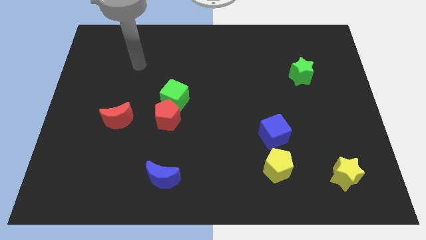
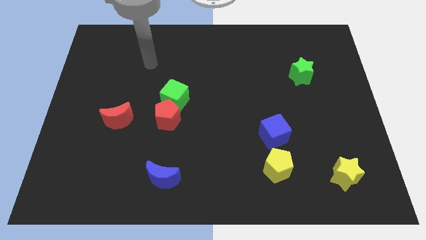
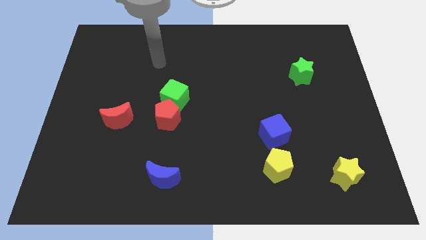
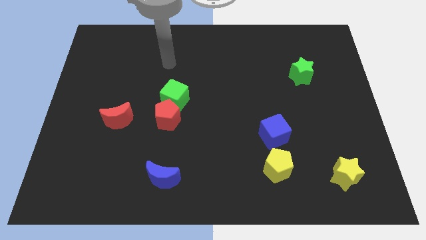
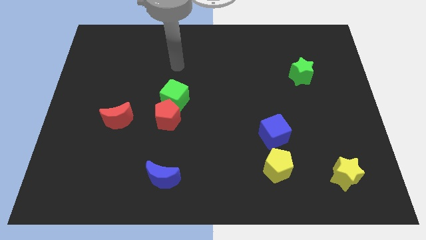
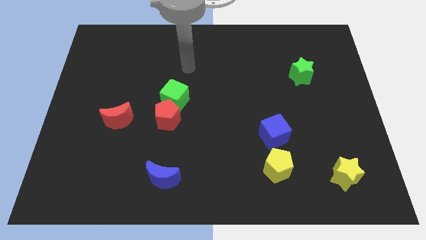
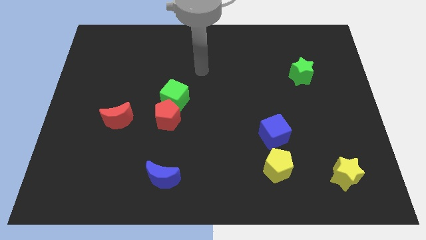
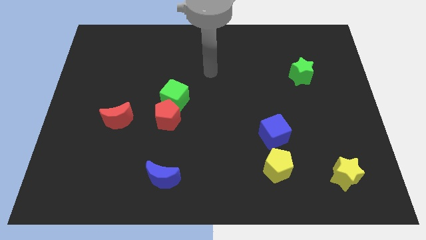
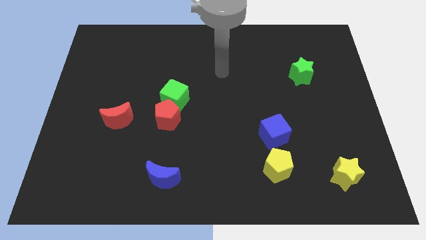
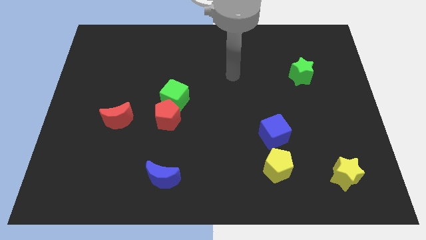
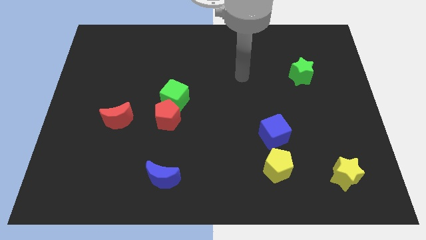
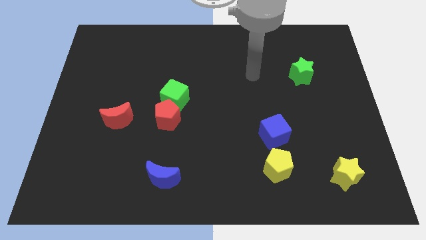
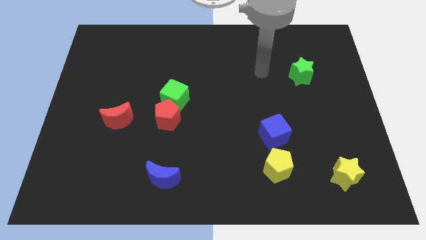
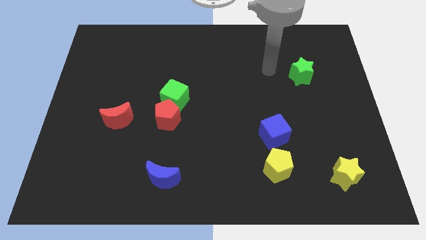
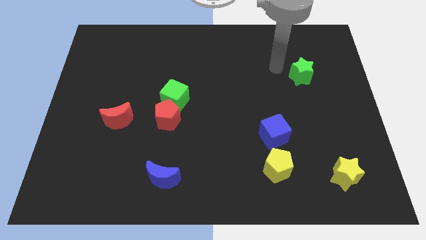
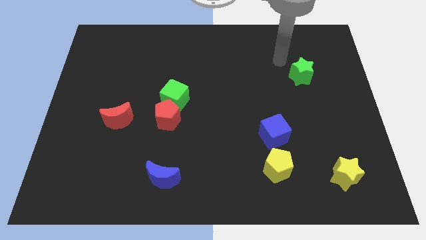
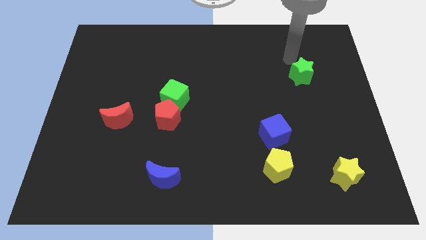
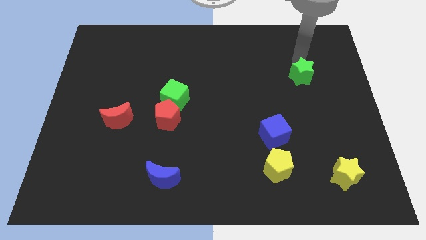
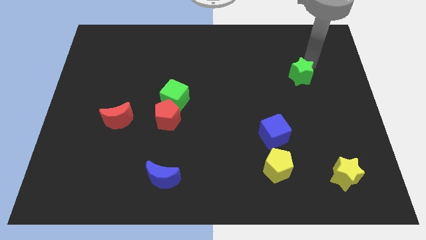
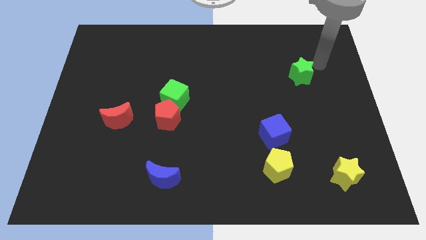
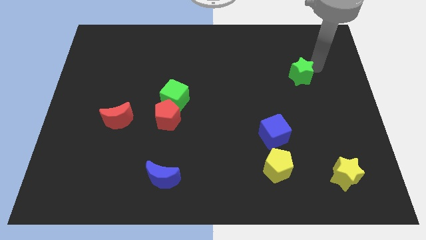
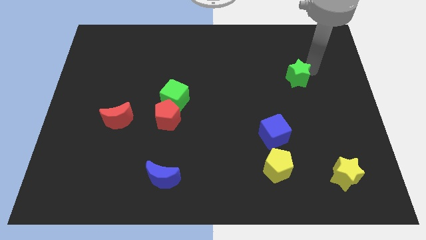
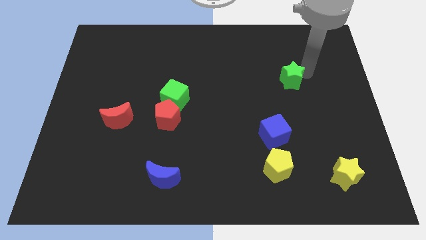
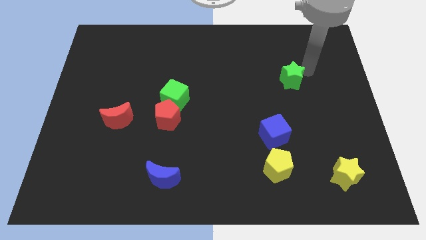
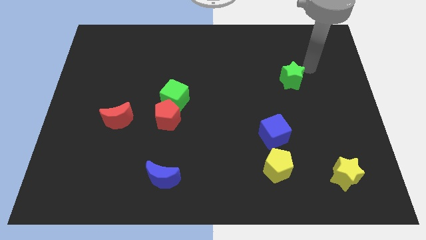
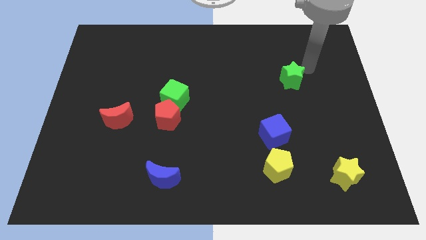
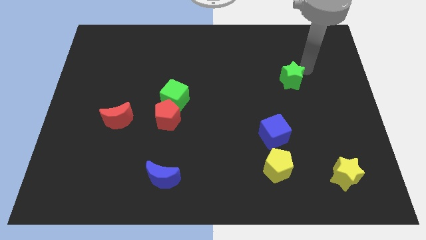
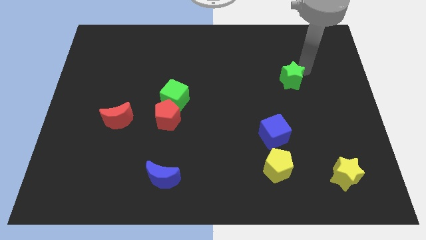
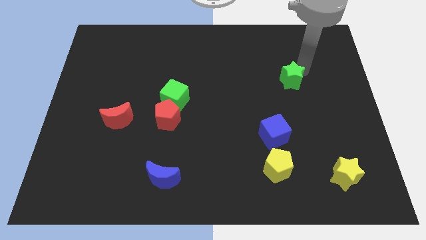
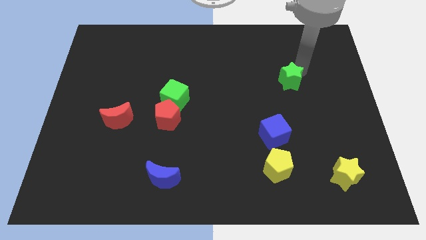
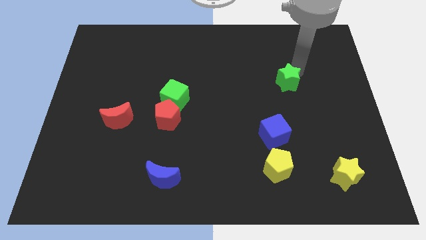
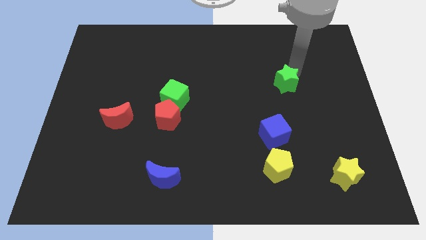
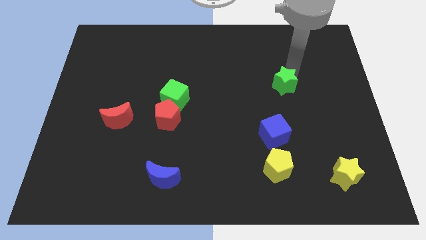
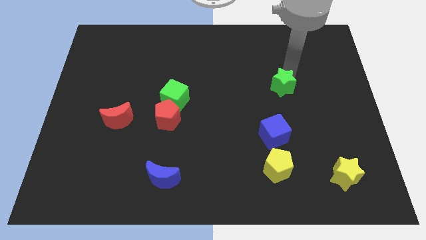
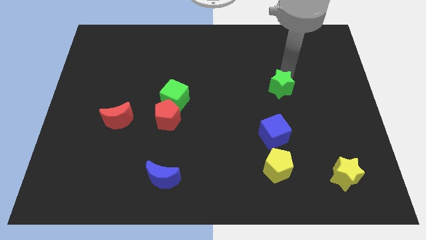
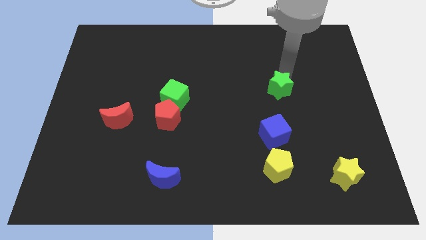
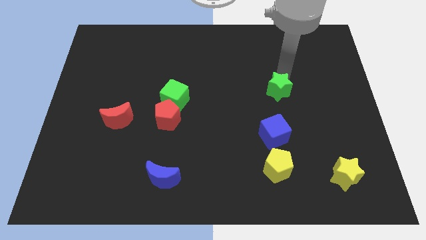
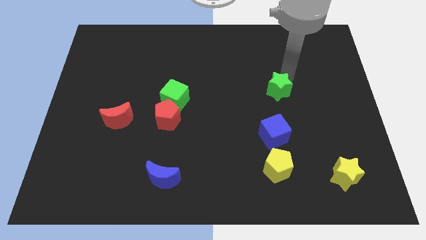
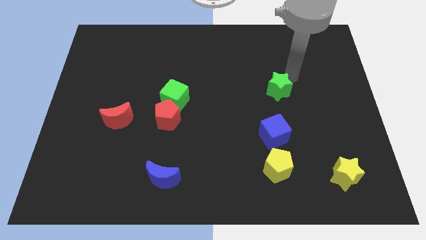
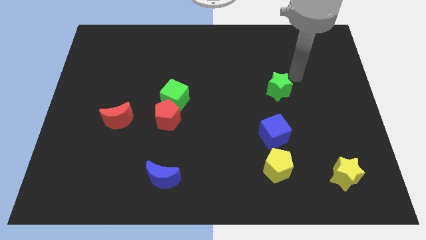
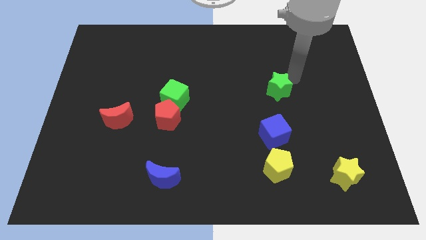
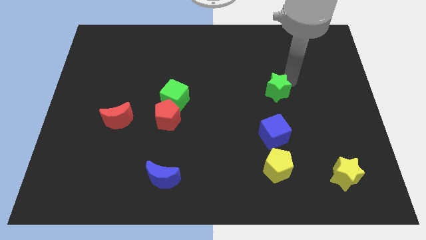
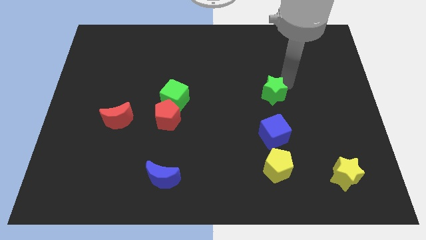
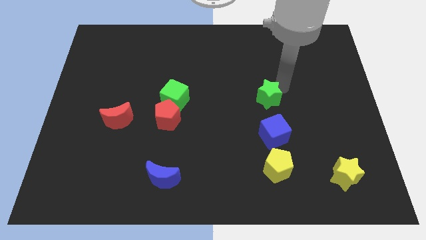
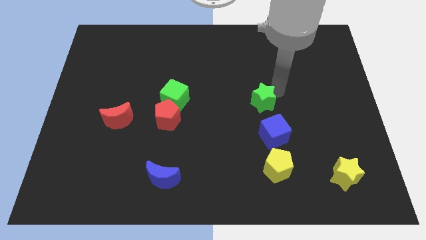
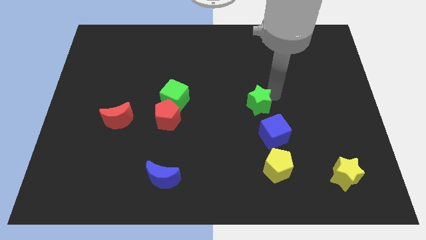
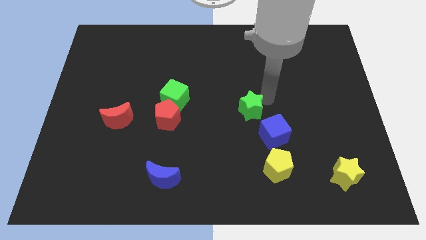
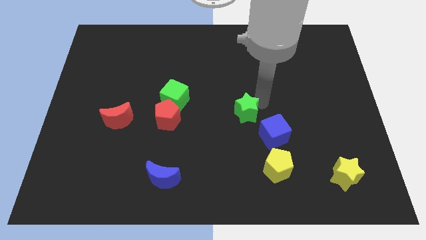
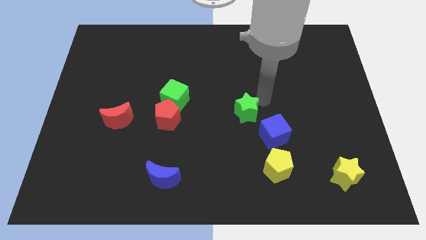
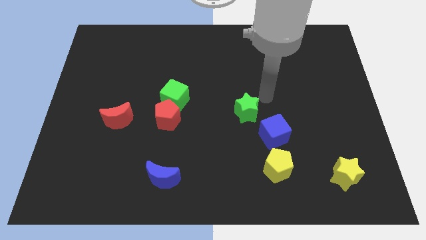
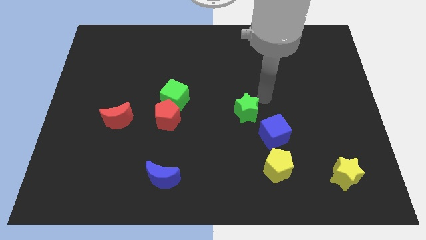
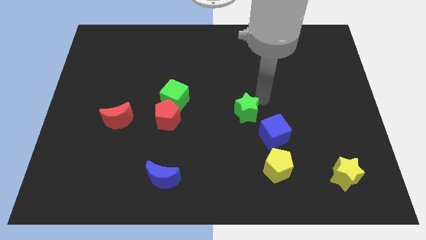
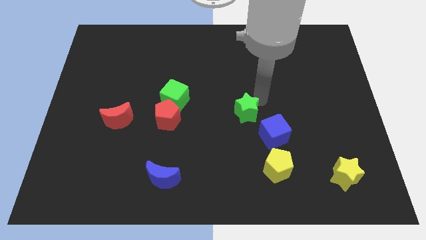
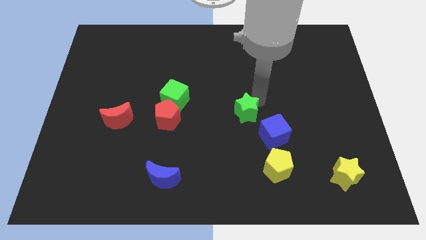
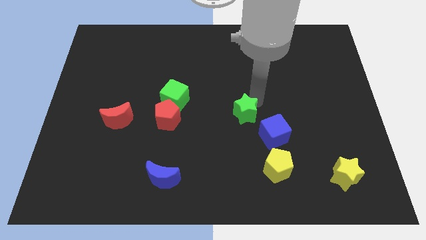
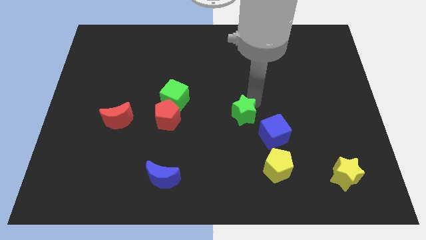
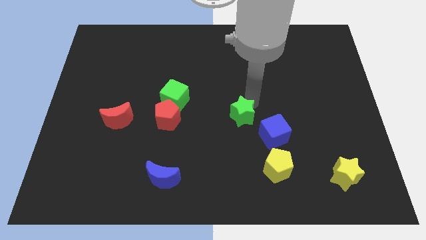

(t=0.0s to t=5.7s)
push the green star down and to the left

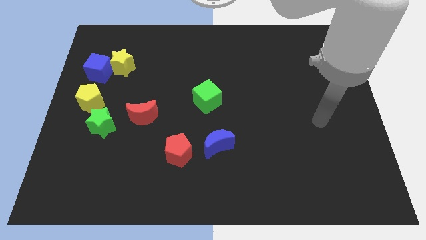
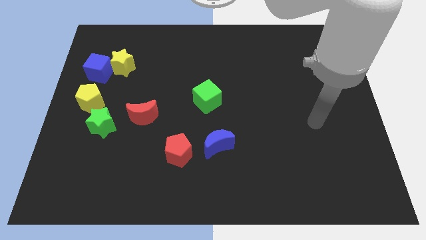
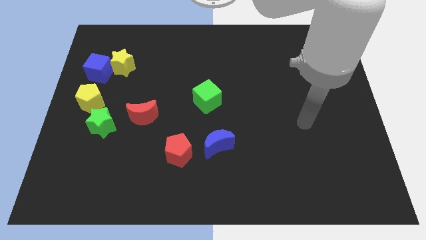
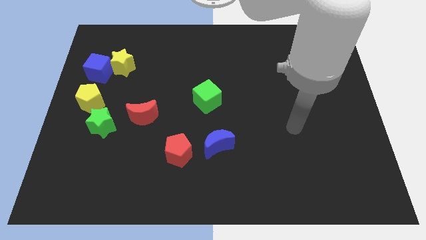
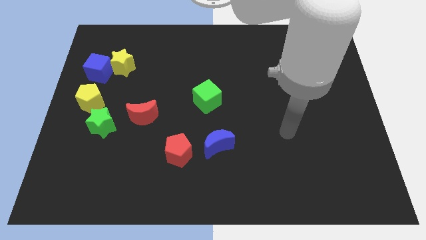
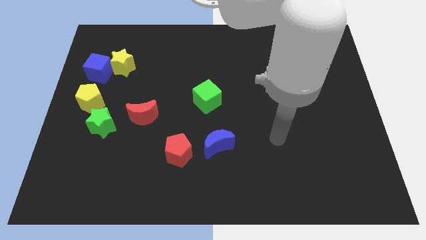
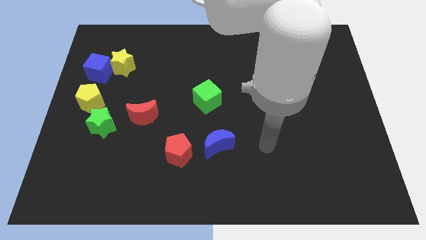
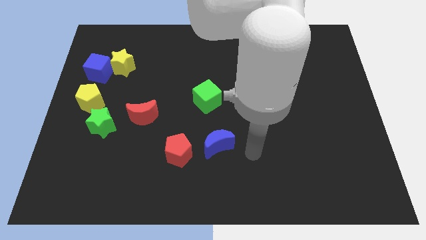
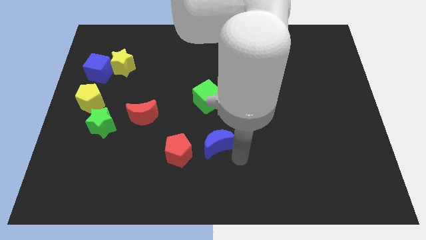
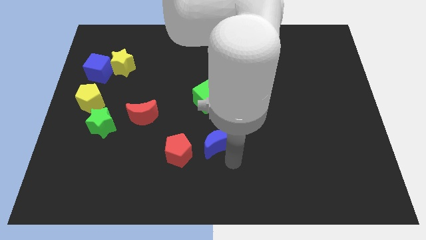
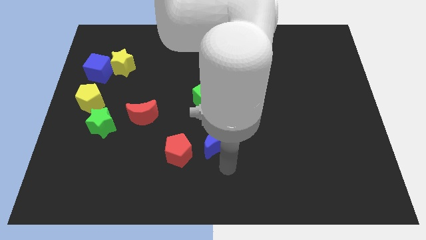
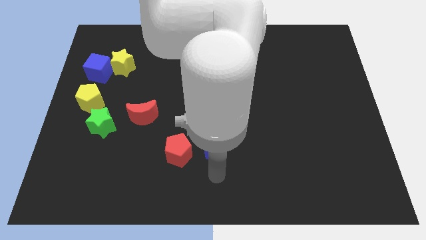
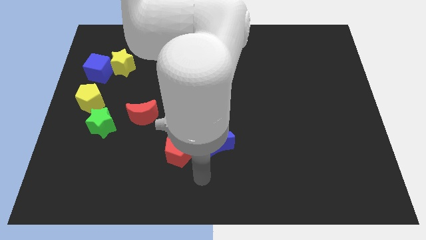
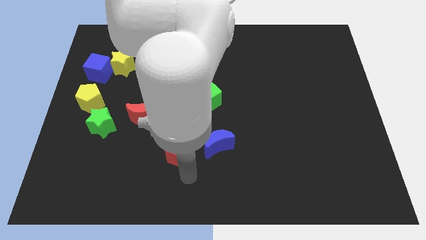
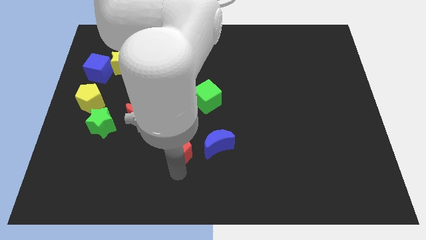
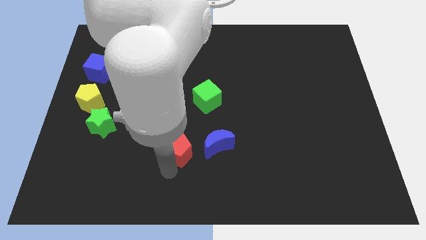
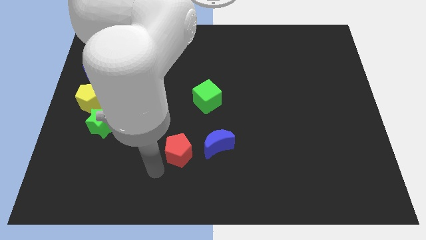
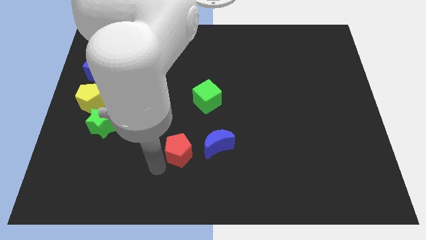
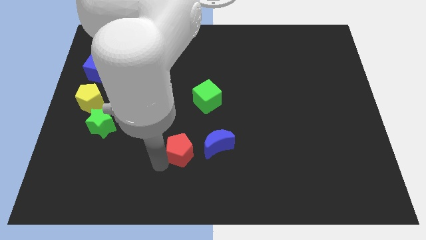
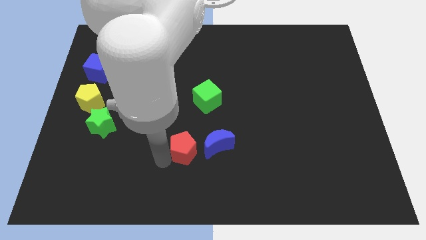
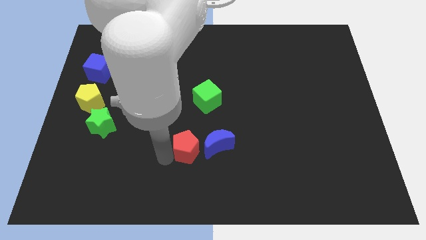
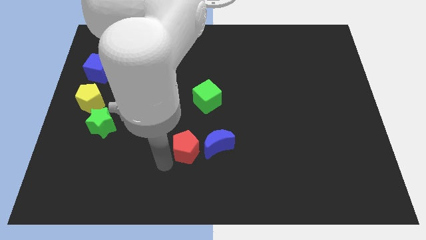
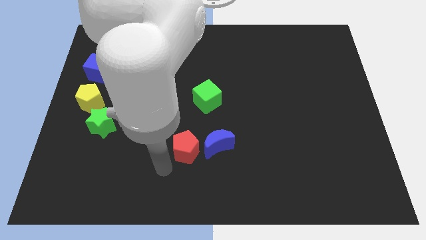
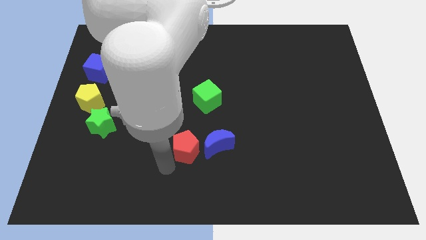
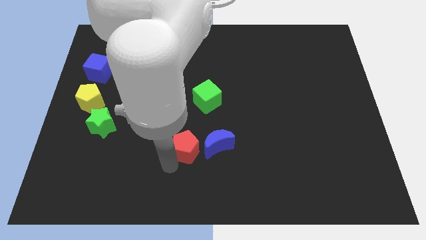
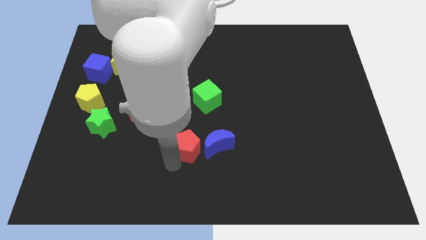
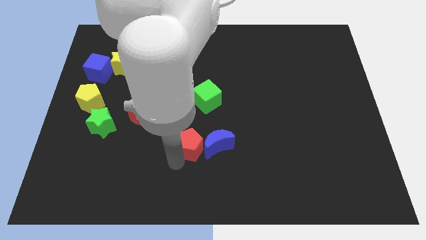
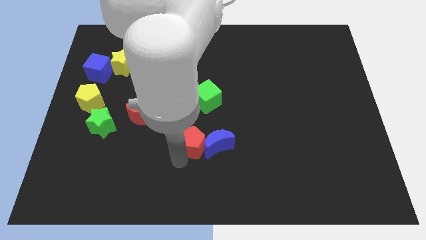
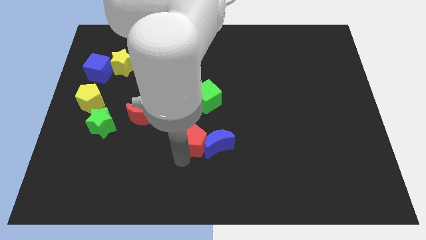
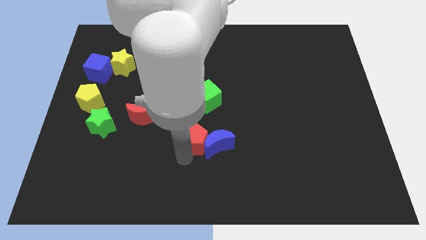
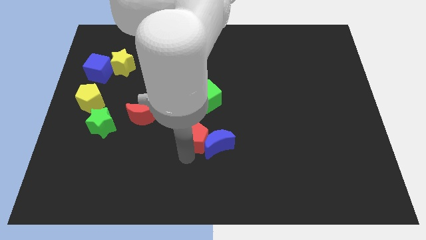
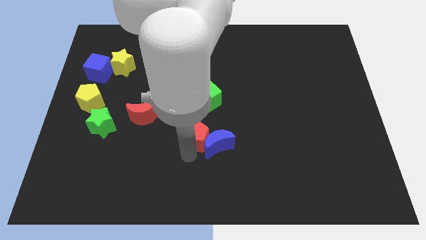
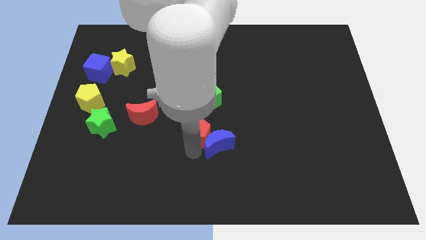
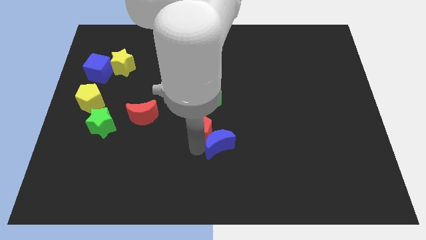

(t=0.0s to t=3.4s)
slightly slide the red pentagon upwards and then to the right
